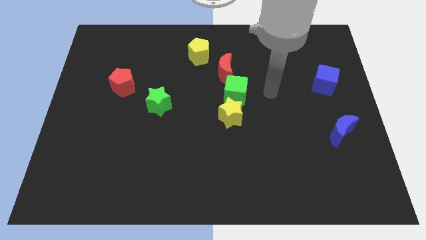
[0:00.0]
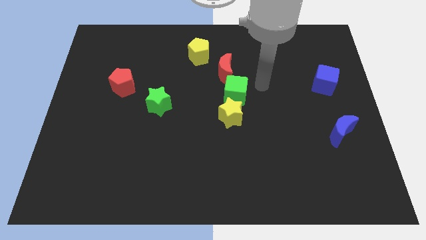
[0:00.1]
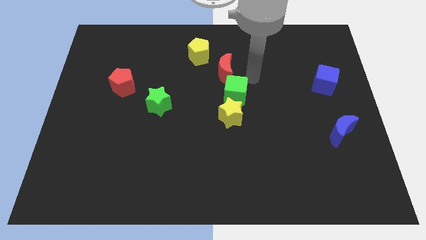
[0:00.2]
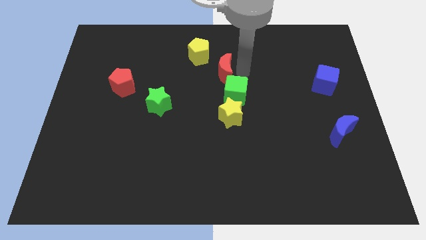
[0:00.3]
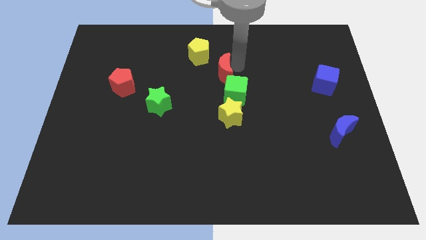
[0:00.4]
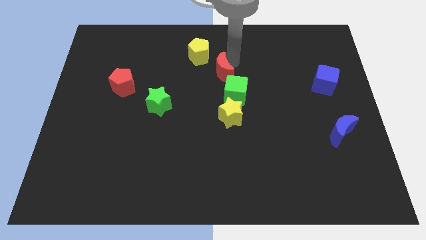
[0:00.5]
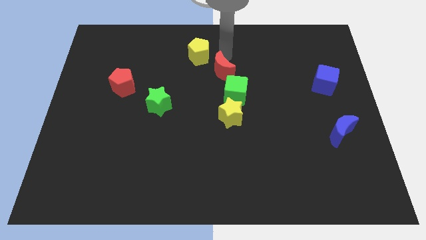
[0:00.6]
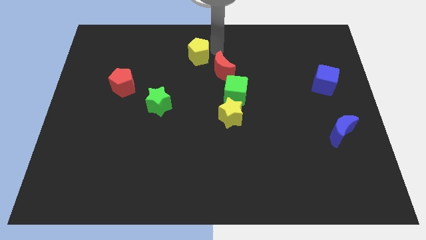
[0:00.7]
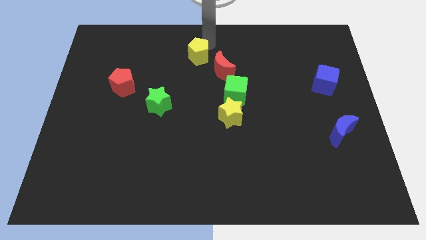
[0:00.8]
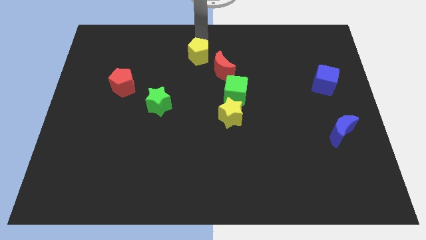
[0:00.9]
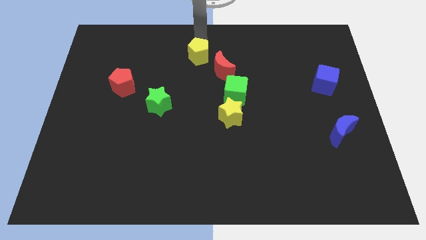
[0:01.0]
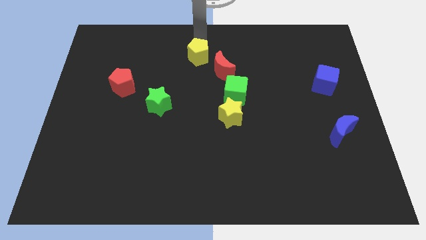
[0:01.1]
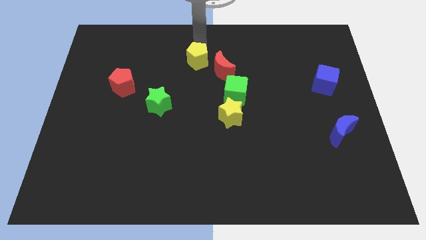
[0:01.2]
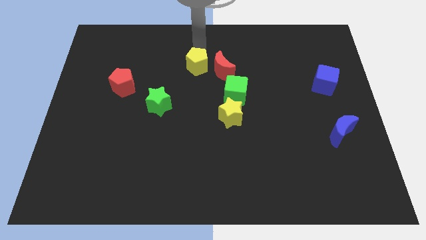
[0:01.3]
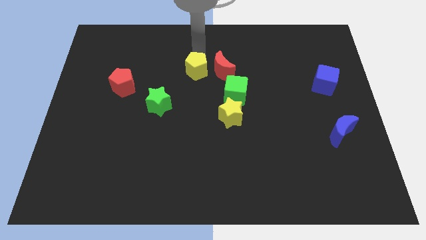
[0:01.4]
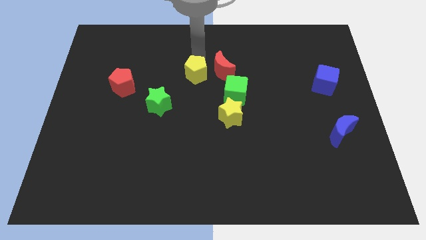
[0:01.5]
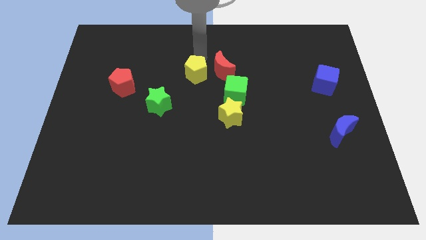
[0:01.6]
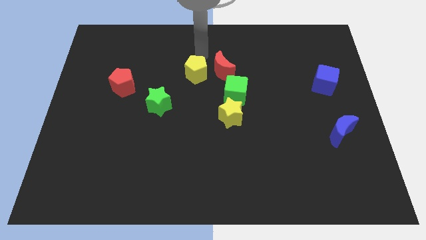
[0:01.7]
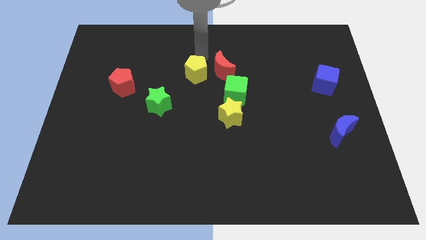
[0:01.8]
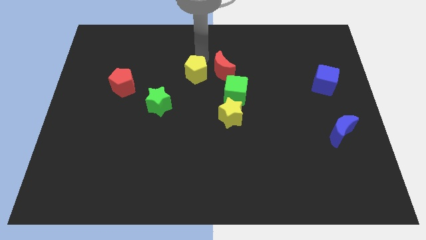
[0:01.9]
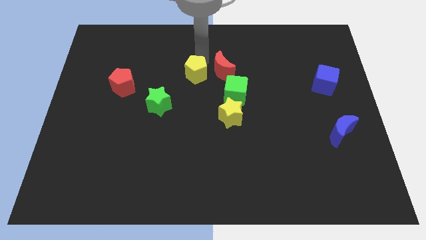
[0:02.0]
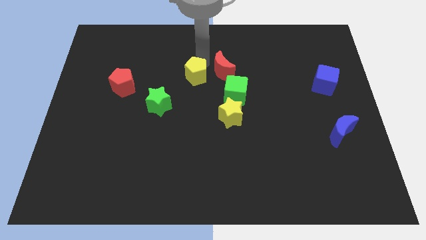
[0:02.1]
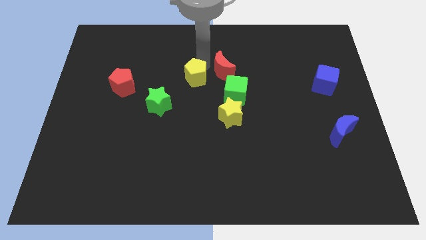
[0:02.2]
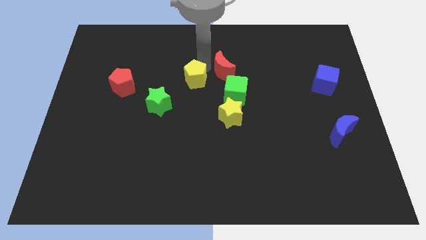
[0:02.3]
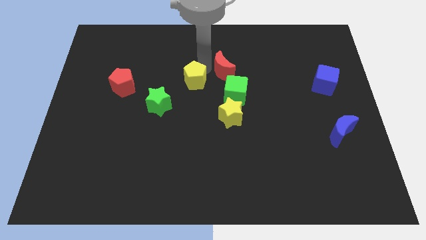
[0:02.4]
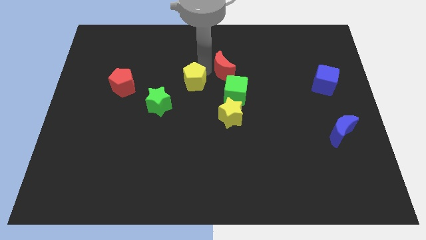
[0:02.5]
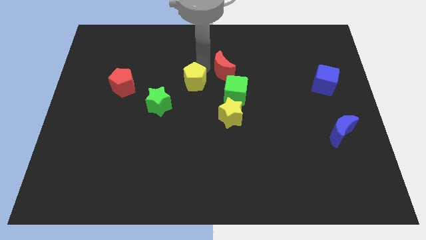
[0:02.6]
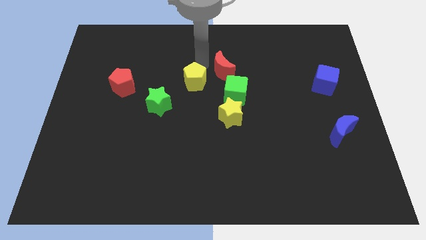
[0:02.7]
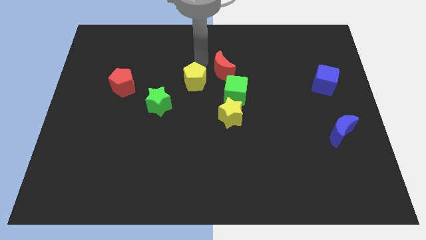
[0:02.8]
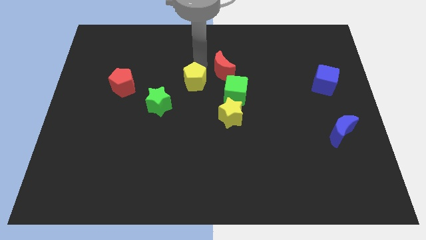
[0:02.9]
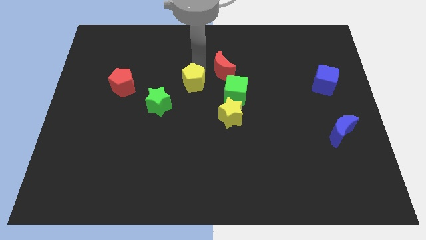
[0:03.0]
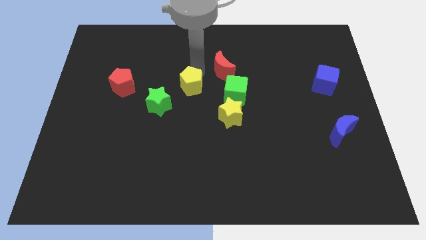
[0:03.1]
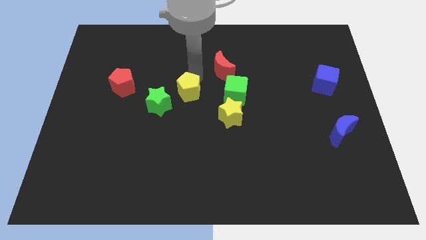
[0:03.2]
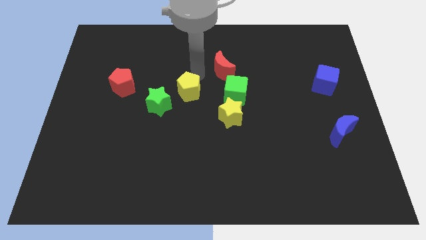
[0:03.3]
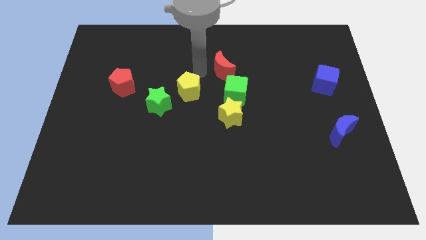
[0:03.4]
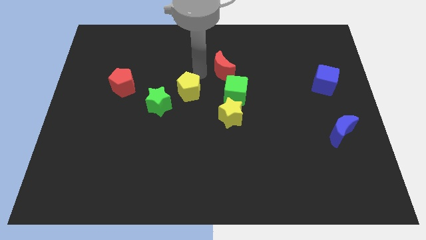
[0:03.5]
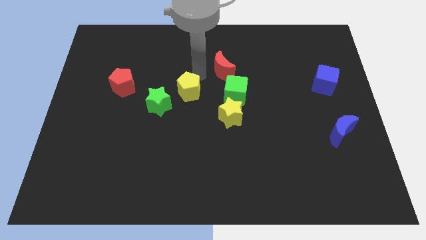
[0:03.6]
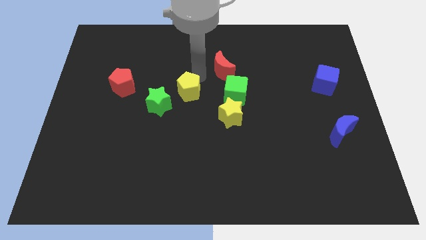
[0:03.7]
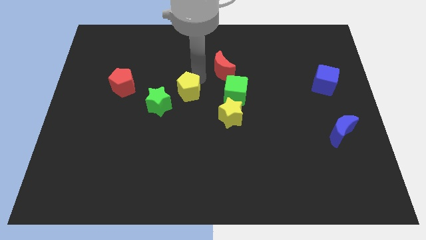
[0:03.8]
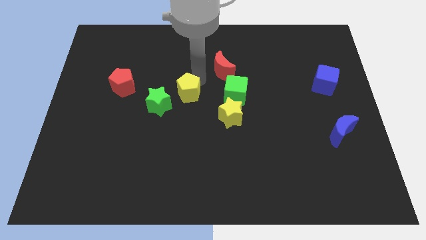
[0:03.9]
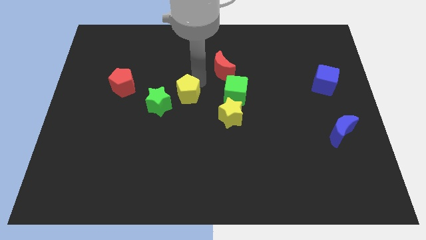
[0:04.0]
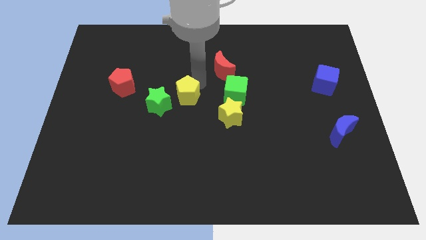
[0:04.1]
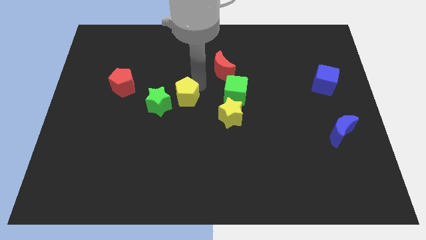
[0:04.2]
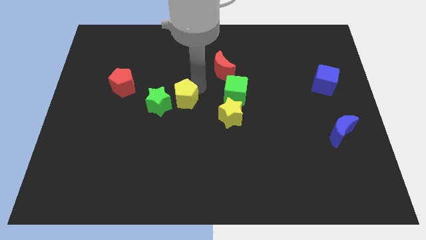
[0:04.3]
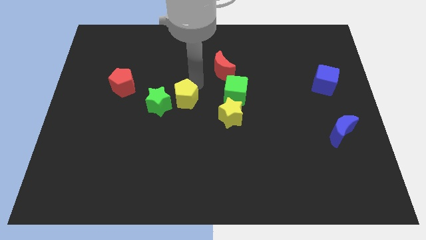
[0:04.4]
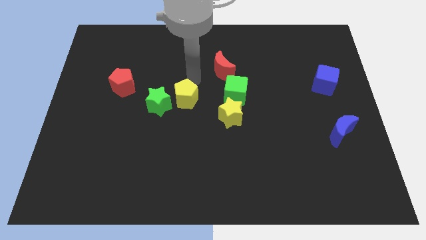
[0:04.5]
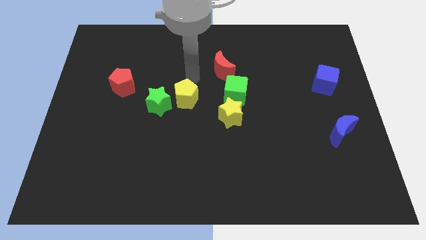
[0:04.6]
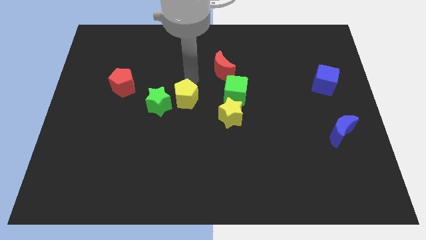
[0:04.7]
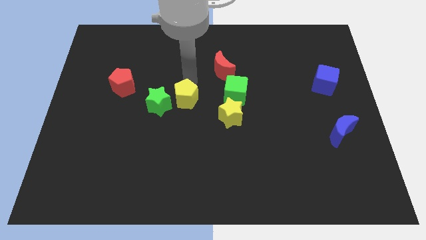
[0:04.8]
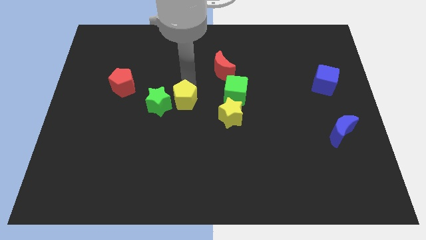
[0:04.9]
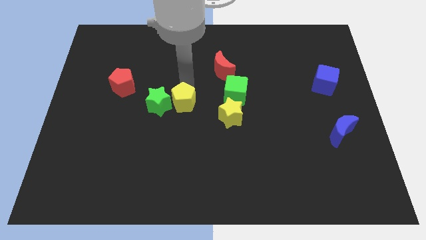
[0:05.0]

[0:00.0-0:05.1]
put the yellow pentagon to the bottom right side of the green star

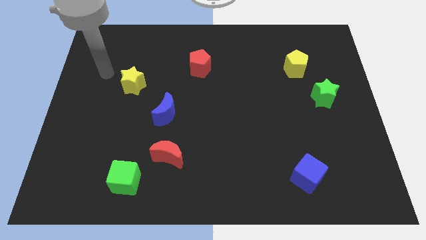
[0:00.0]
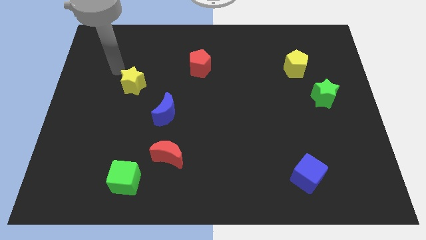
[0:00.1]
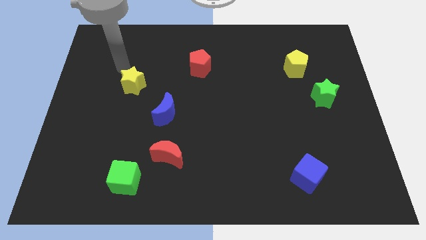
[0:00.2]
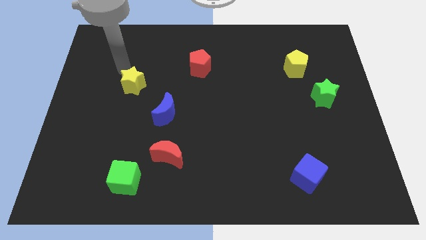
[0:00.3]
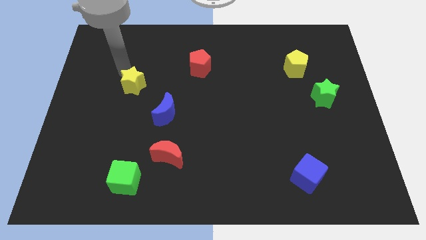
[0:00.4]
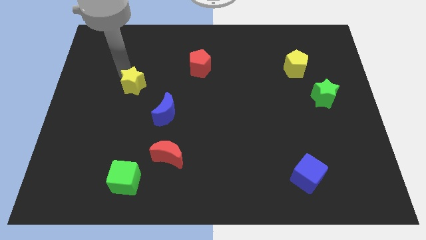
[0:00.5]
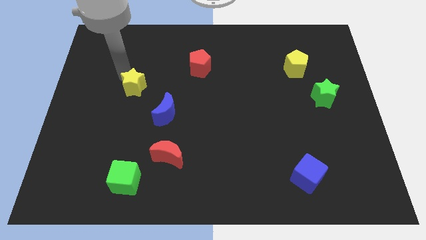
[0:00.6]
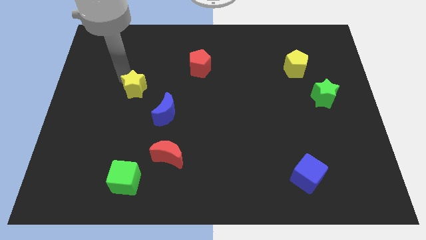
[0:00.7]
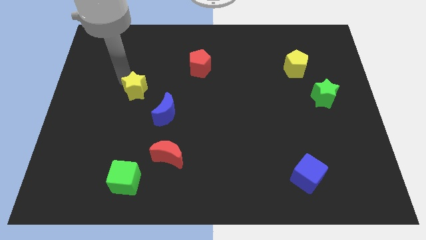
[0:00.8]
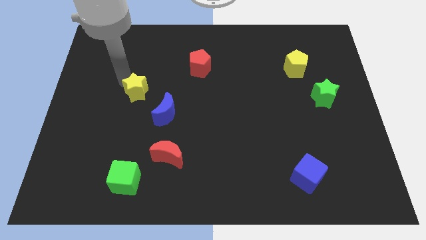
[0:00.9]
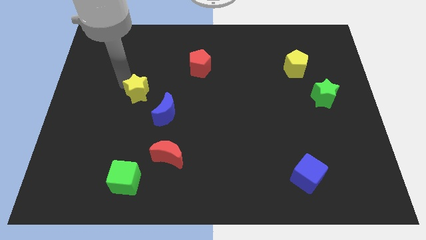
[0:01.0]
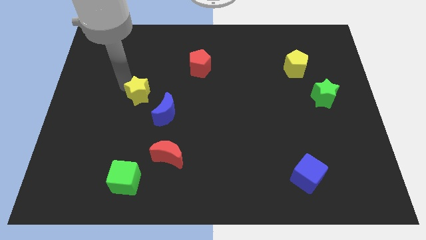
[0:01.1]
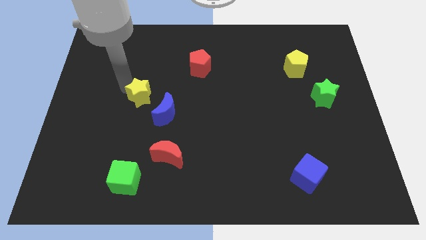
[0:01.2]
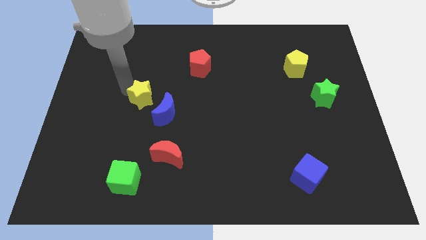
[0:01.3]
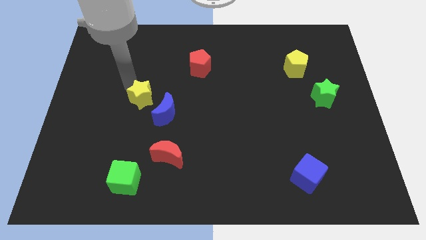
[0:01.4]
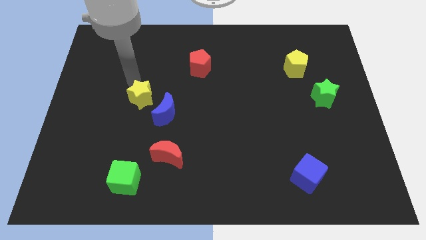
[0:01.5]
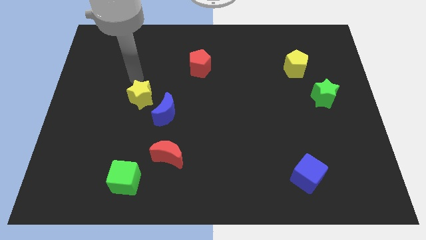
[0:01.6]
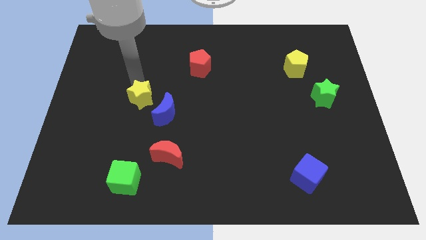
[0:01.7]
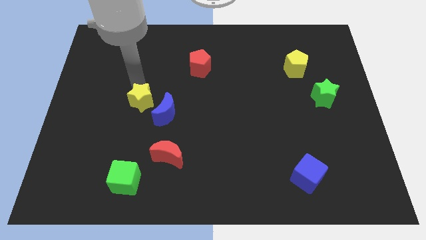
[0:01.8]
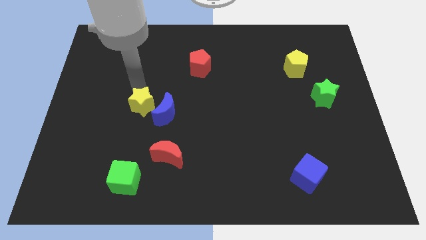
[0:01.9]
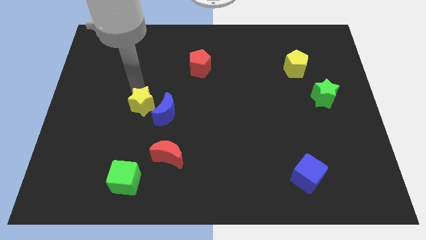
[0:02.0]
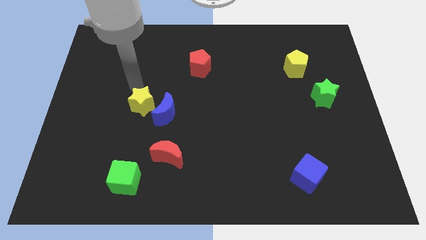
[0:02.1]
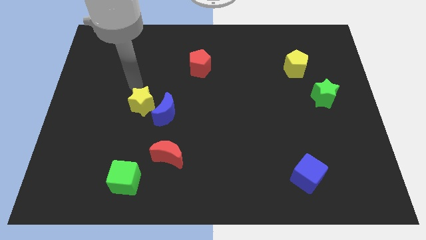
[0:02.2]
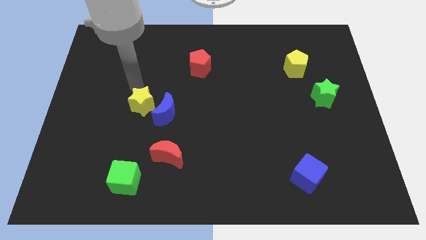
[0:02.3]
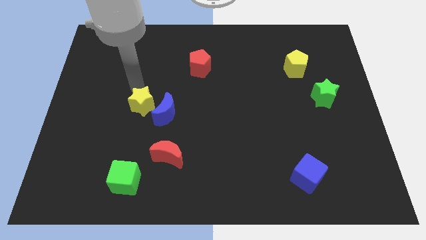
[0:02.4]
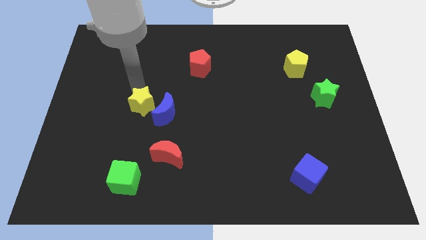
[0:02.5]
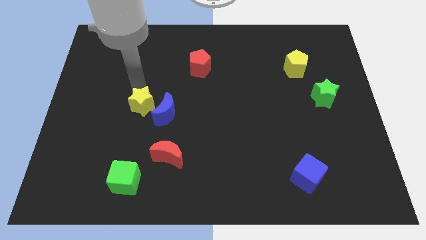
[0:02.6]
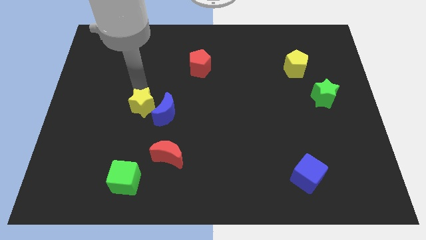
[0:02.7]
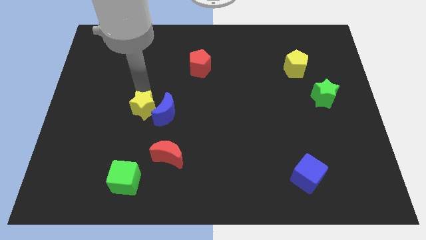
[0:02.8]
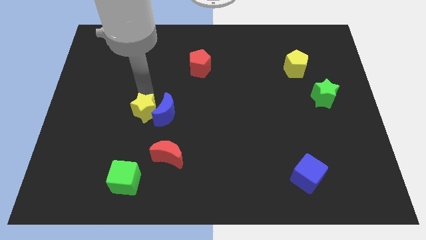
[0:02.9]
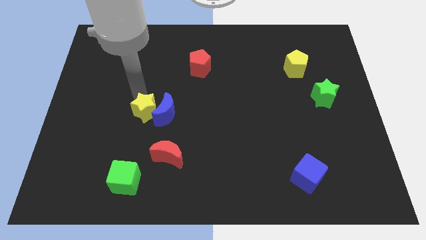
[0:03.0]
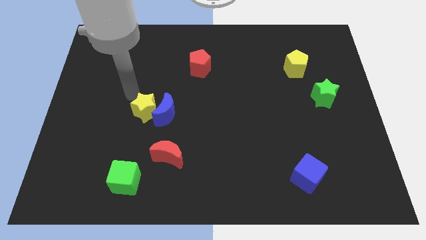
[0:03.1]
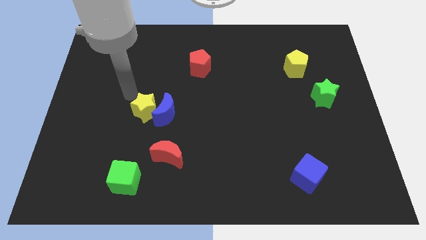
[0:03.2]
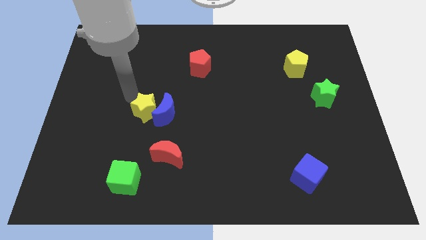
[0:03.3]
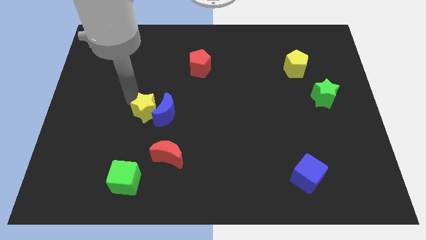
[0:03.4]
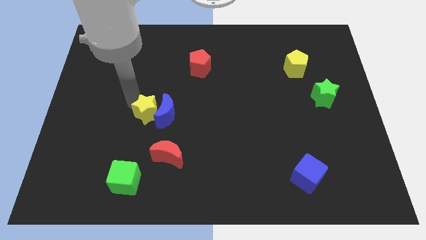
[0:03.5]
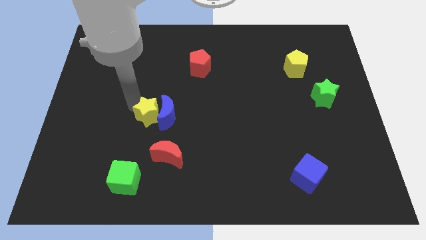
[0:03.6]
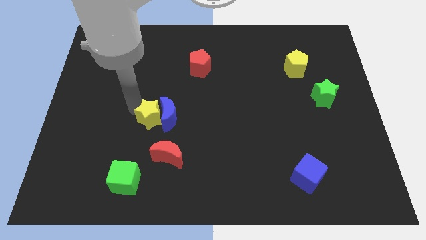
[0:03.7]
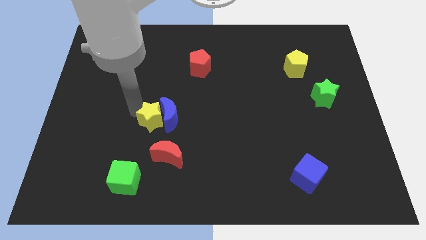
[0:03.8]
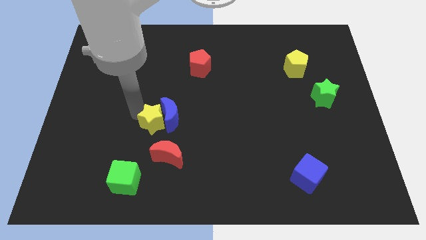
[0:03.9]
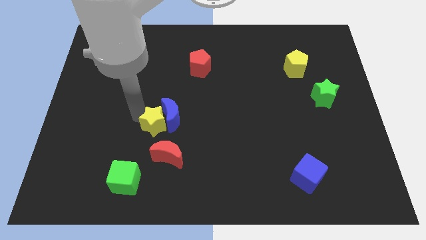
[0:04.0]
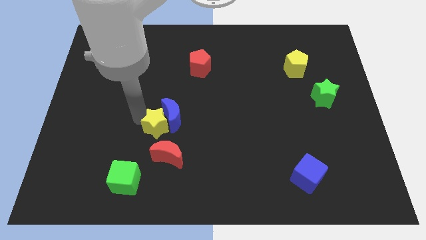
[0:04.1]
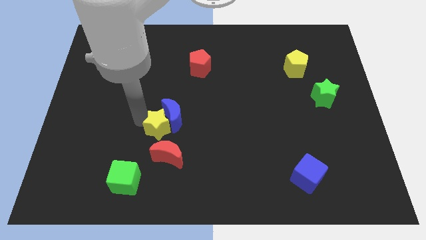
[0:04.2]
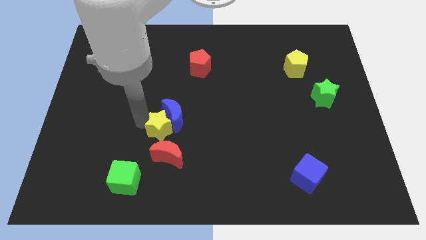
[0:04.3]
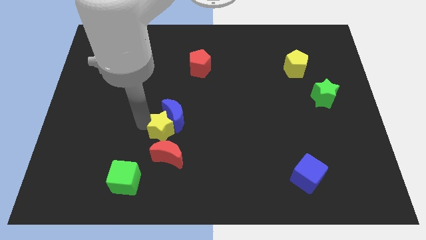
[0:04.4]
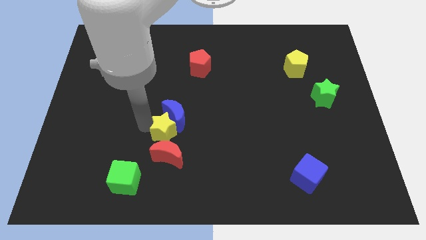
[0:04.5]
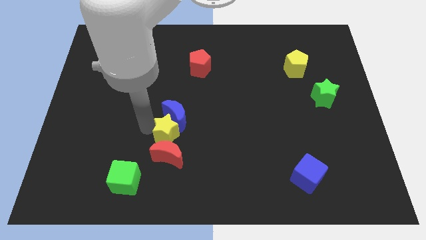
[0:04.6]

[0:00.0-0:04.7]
put the yellow star to the top right side of the red moon
